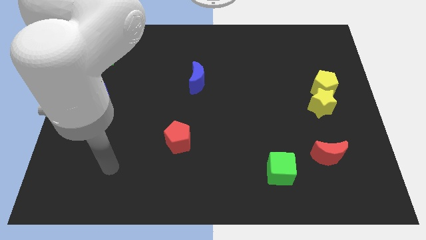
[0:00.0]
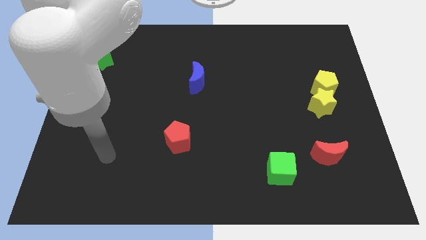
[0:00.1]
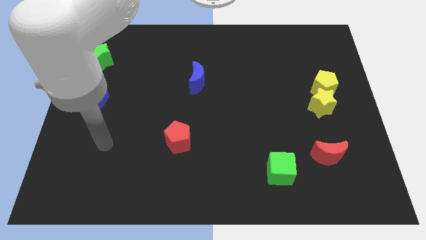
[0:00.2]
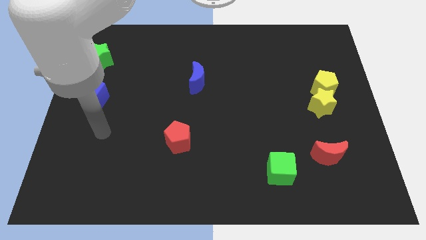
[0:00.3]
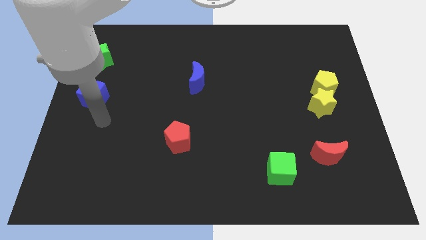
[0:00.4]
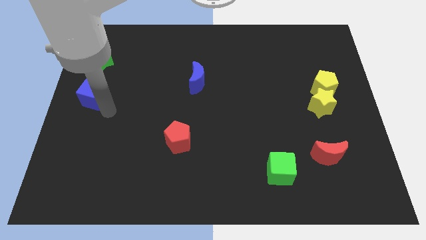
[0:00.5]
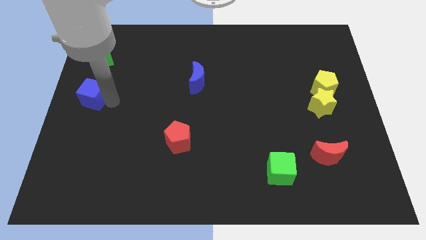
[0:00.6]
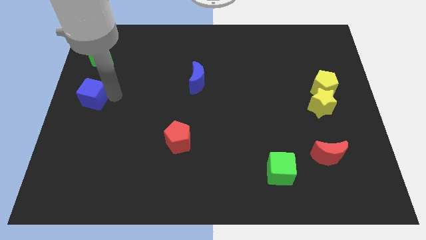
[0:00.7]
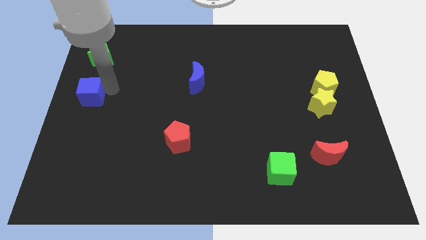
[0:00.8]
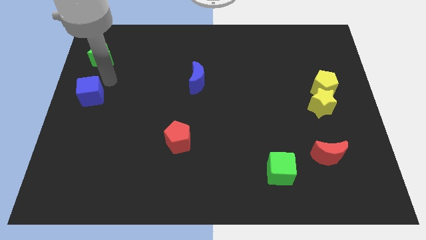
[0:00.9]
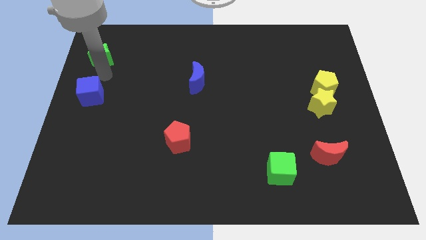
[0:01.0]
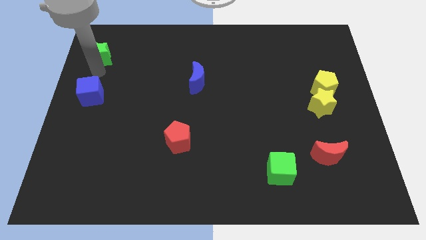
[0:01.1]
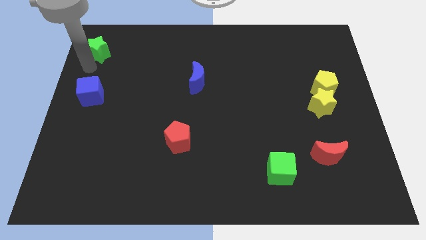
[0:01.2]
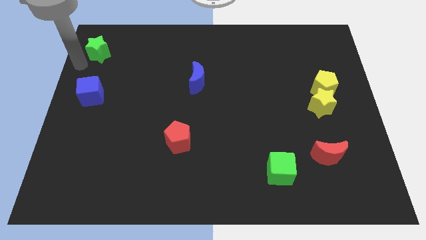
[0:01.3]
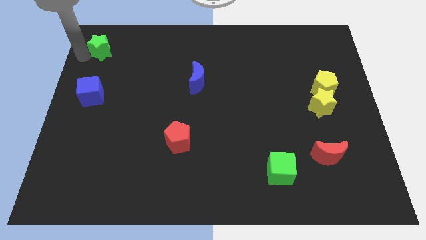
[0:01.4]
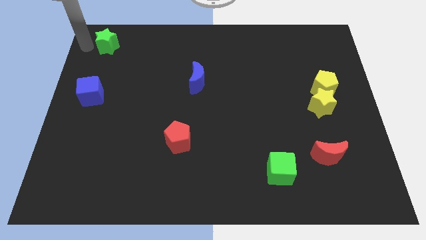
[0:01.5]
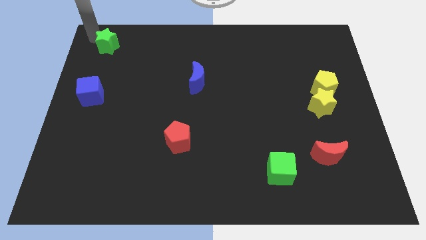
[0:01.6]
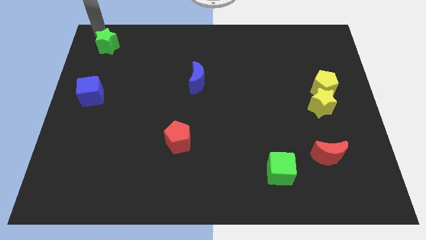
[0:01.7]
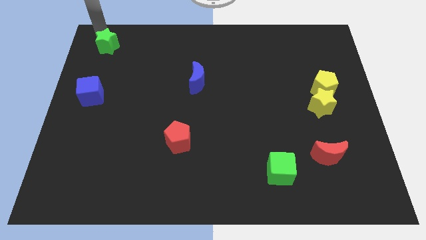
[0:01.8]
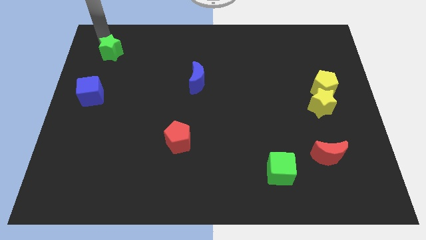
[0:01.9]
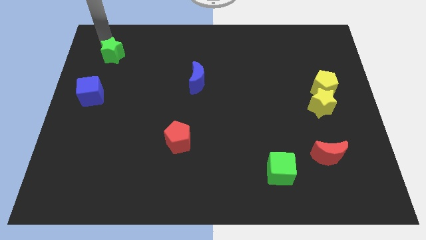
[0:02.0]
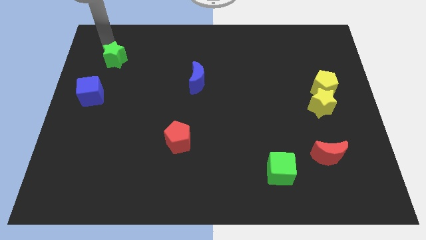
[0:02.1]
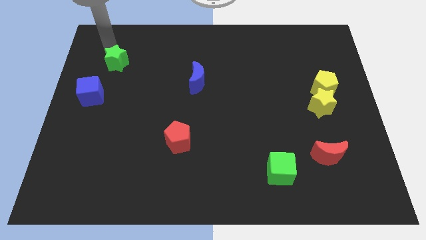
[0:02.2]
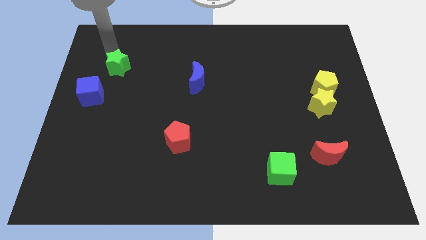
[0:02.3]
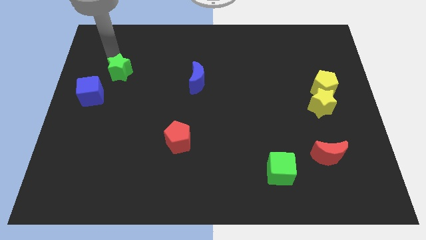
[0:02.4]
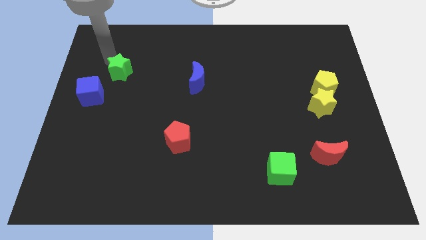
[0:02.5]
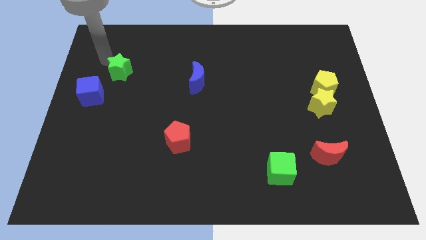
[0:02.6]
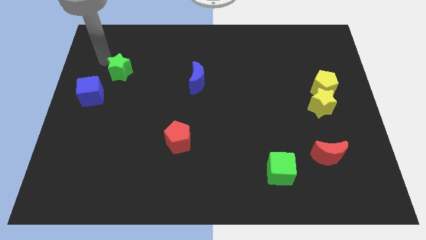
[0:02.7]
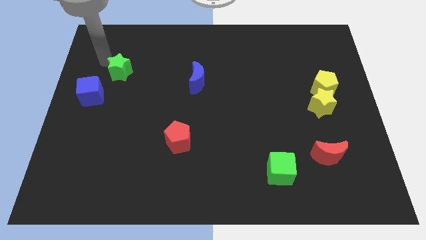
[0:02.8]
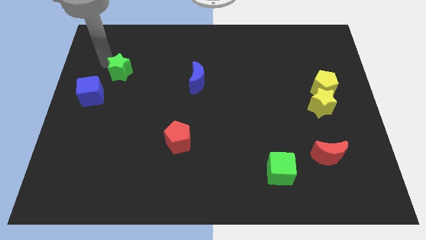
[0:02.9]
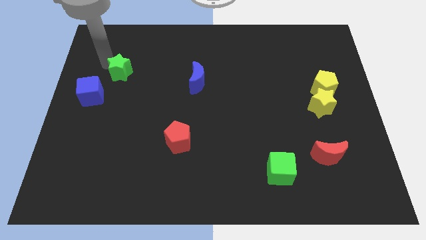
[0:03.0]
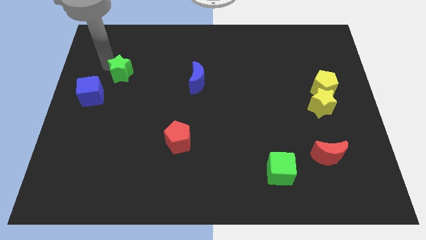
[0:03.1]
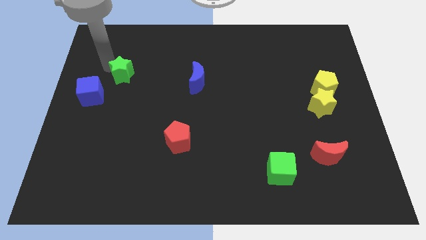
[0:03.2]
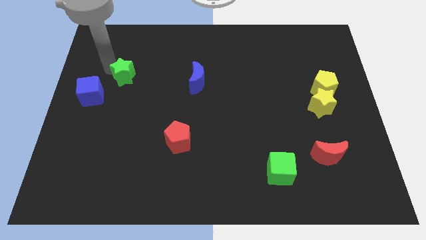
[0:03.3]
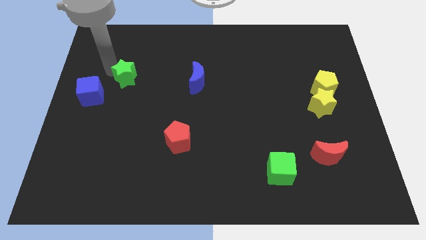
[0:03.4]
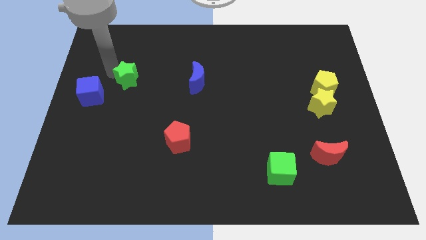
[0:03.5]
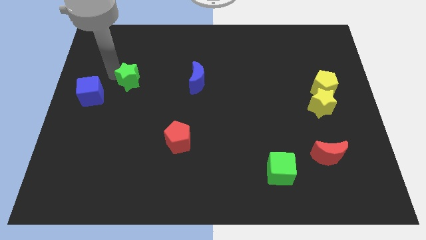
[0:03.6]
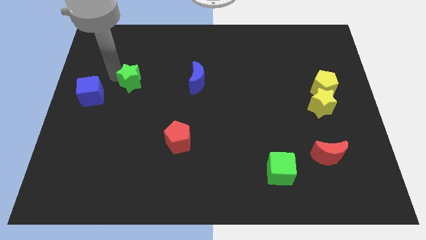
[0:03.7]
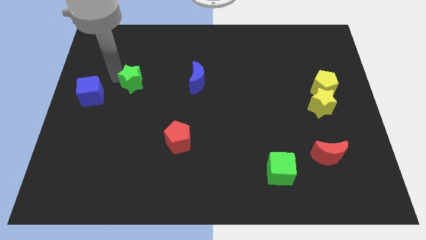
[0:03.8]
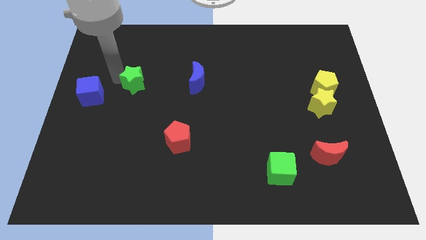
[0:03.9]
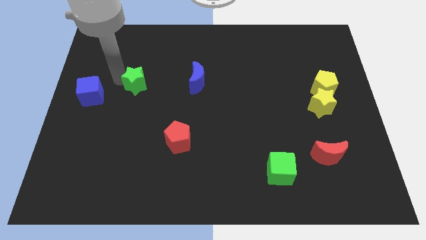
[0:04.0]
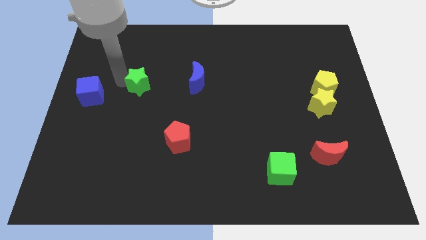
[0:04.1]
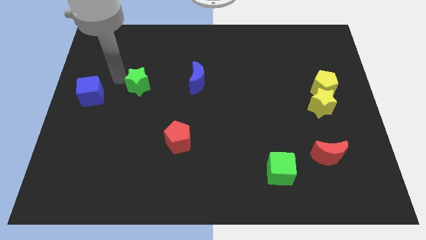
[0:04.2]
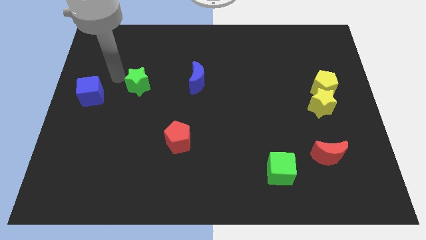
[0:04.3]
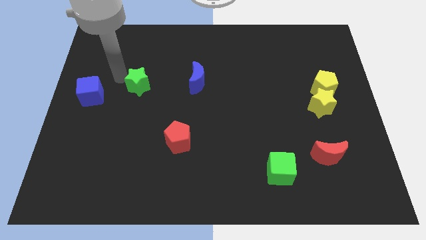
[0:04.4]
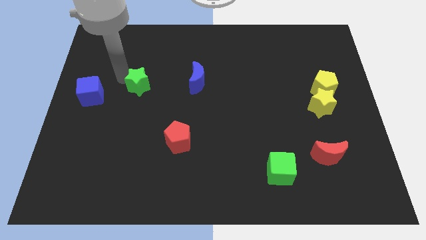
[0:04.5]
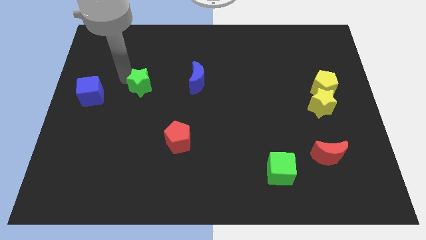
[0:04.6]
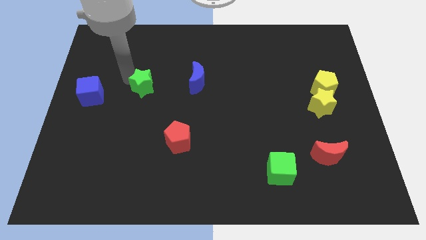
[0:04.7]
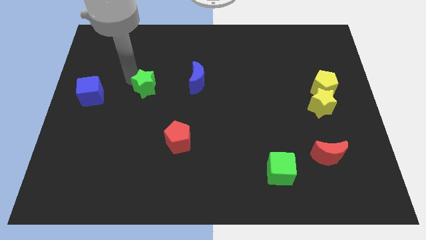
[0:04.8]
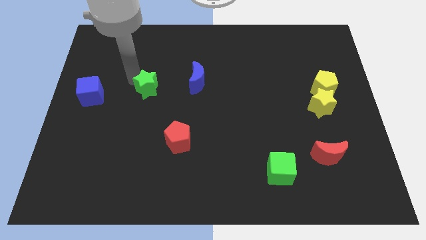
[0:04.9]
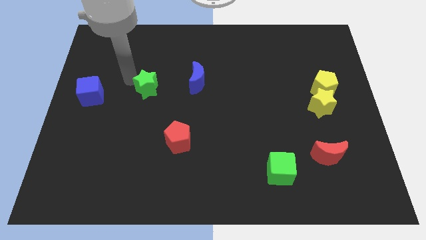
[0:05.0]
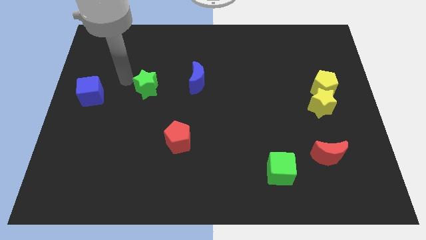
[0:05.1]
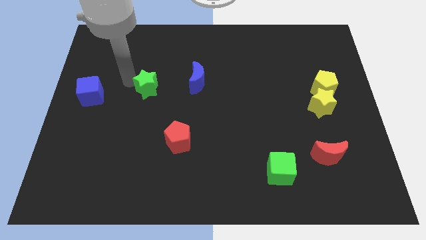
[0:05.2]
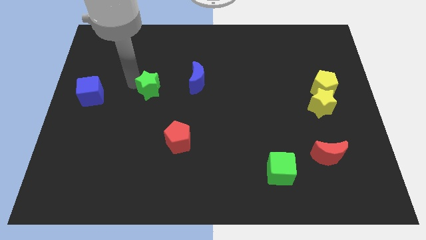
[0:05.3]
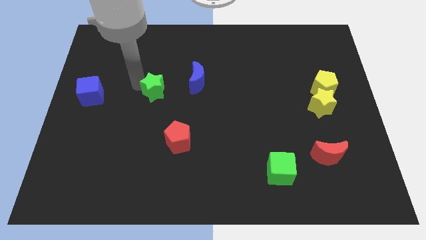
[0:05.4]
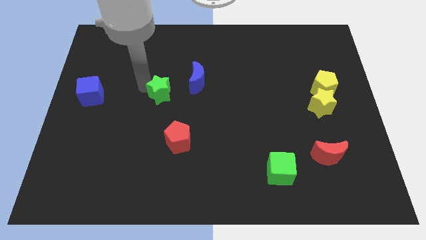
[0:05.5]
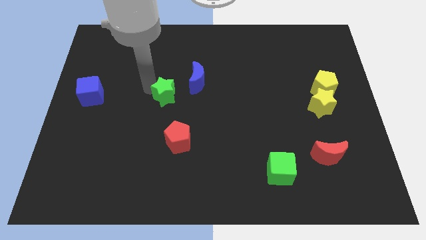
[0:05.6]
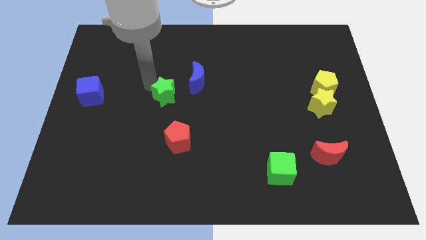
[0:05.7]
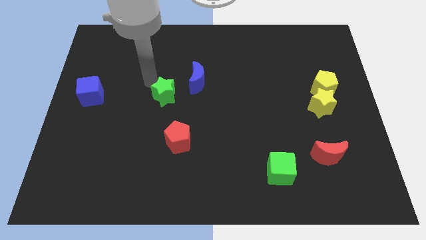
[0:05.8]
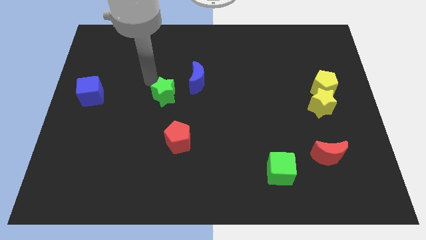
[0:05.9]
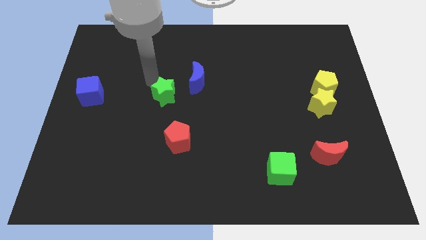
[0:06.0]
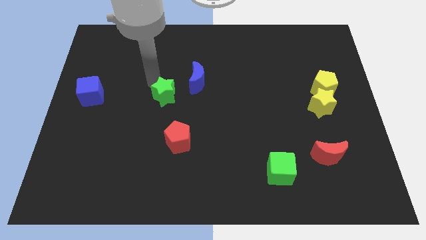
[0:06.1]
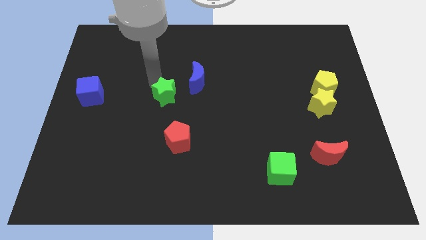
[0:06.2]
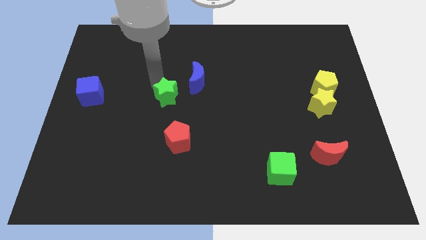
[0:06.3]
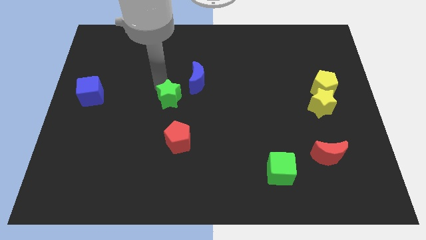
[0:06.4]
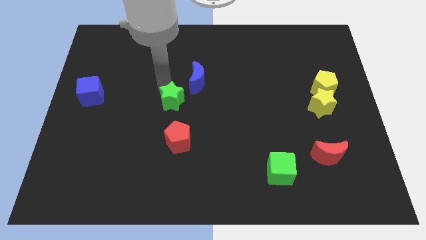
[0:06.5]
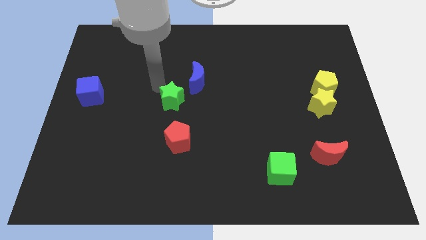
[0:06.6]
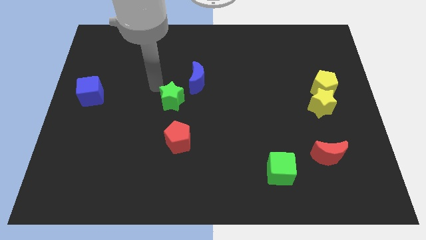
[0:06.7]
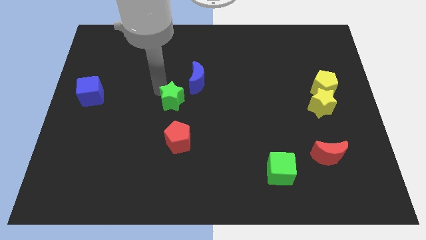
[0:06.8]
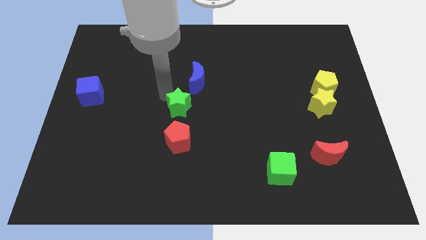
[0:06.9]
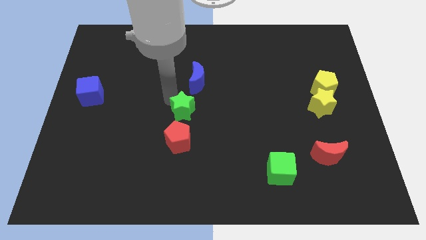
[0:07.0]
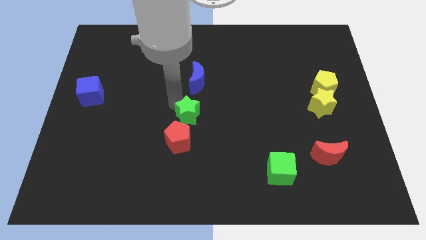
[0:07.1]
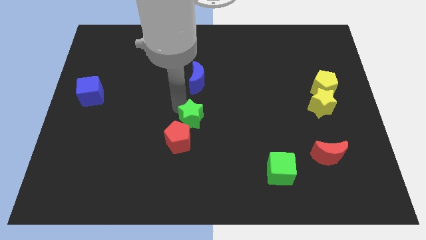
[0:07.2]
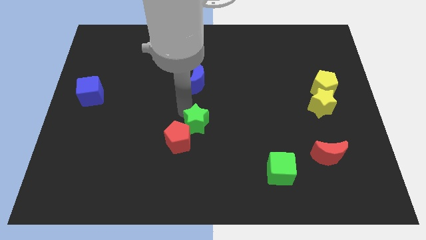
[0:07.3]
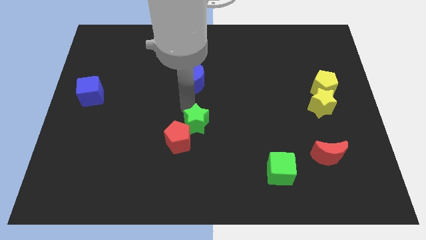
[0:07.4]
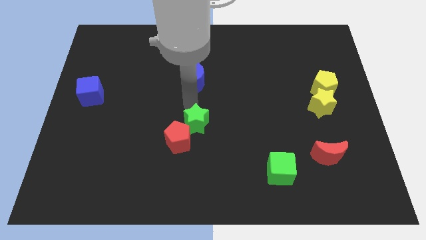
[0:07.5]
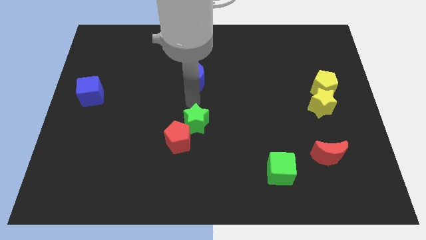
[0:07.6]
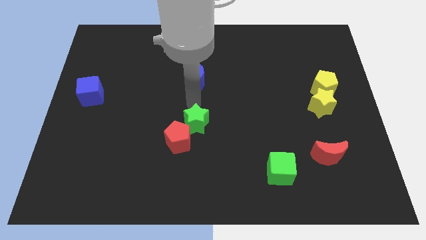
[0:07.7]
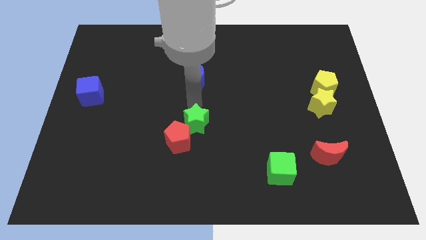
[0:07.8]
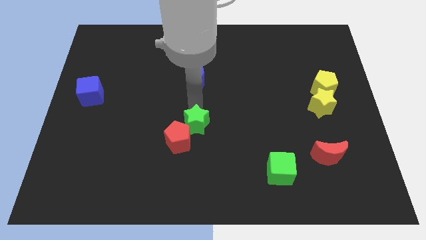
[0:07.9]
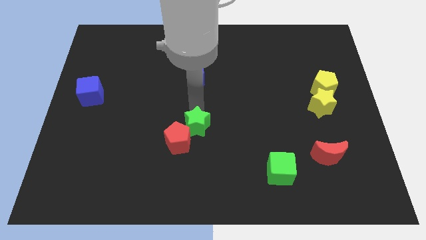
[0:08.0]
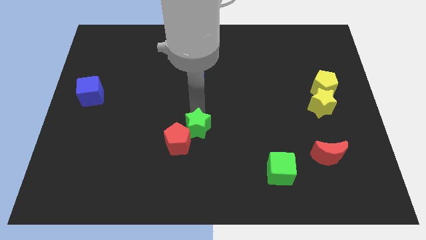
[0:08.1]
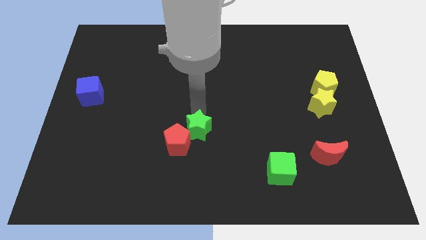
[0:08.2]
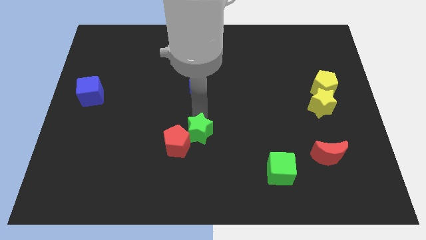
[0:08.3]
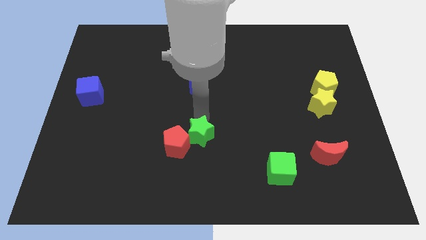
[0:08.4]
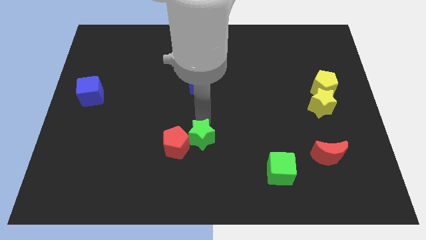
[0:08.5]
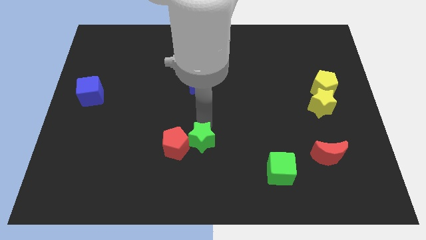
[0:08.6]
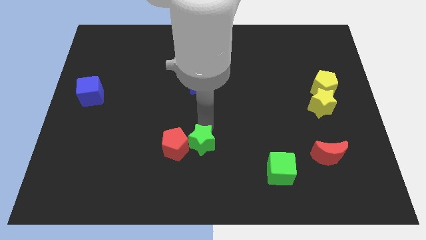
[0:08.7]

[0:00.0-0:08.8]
slide the green star diagonally down and to the right of the red pentagon
